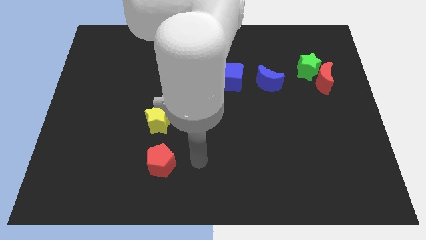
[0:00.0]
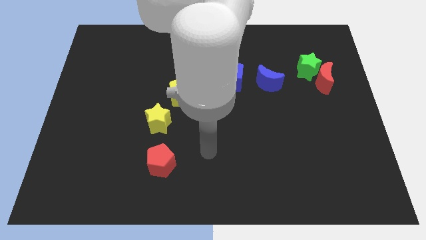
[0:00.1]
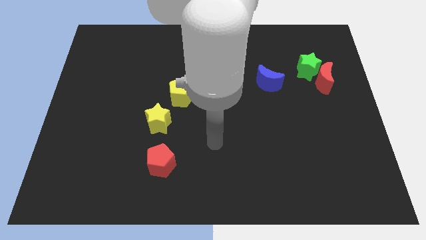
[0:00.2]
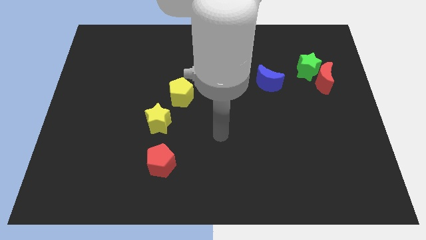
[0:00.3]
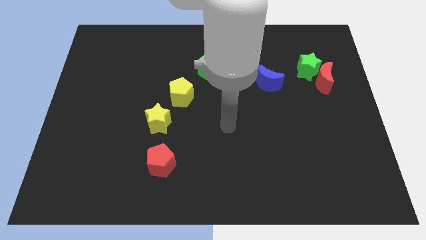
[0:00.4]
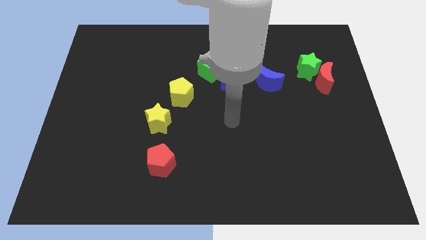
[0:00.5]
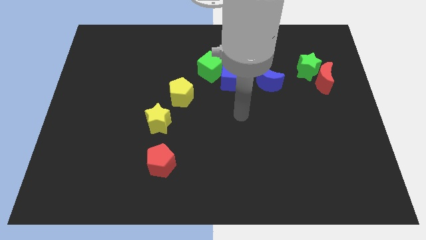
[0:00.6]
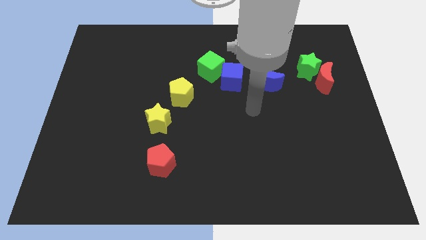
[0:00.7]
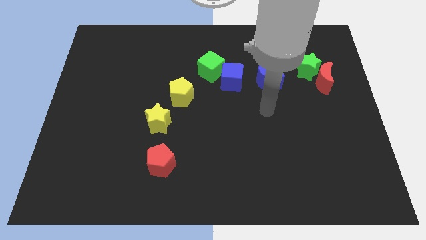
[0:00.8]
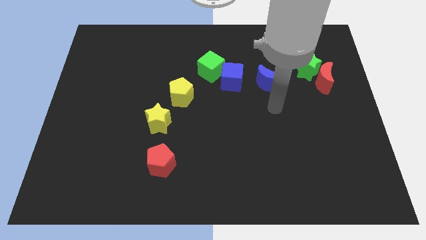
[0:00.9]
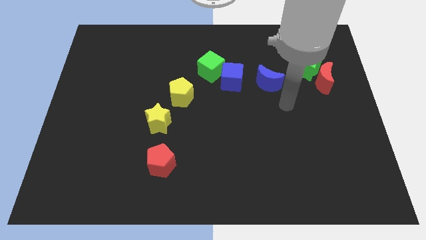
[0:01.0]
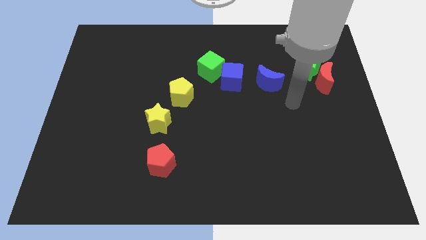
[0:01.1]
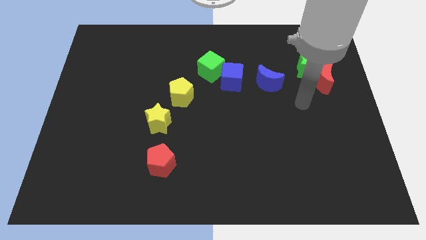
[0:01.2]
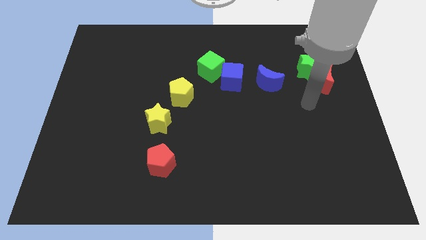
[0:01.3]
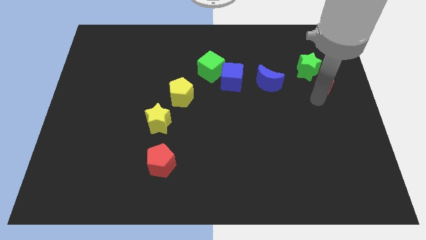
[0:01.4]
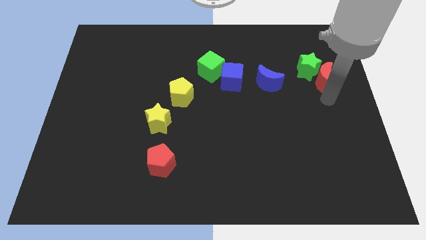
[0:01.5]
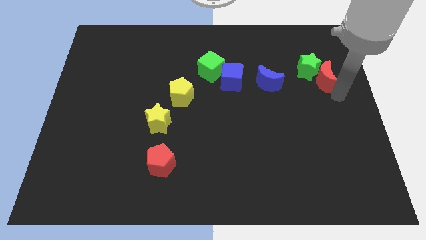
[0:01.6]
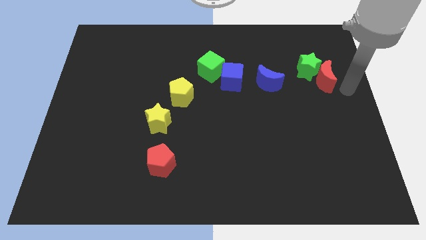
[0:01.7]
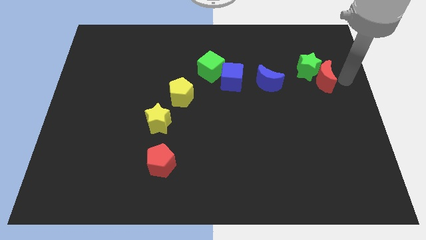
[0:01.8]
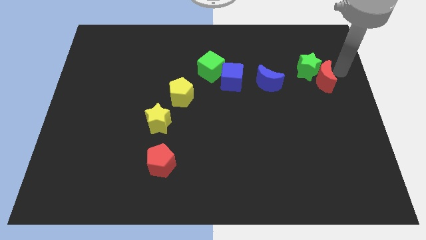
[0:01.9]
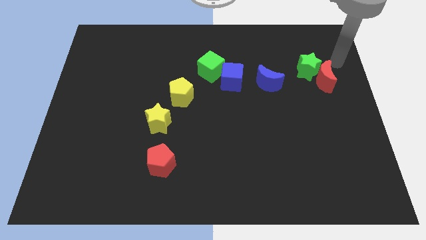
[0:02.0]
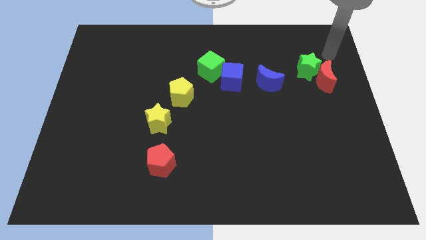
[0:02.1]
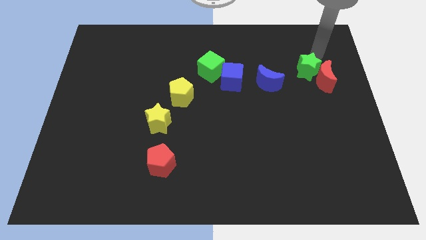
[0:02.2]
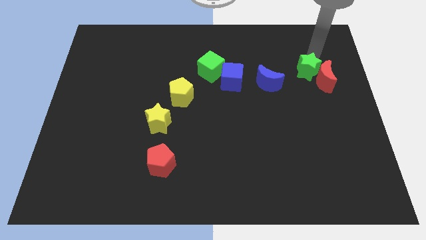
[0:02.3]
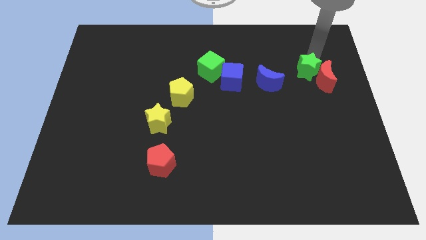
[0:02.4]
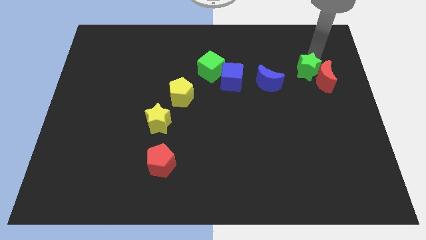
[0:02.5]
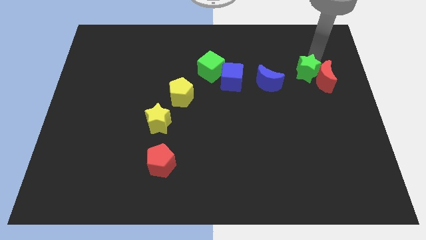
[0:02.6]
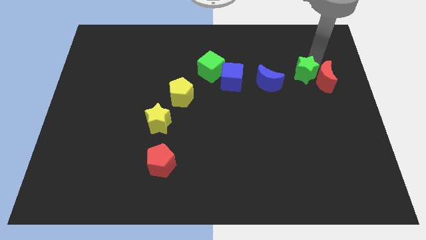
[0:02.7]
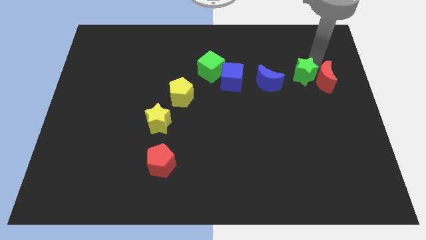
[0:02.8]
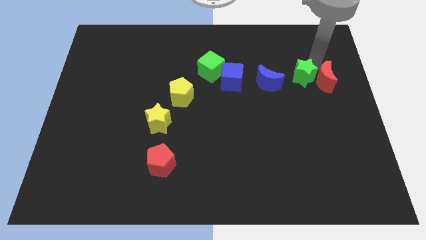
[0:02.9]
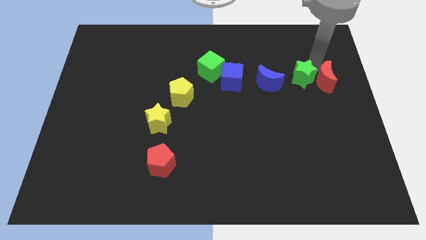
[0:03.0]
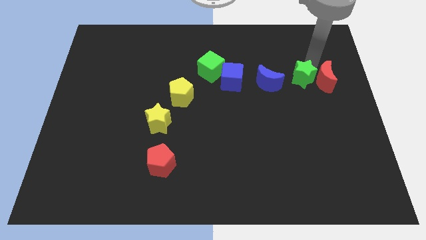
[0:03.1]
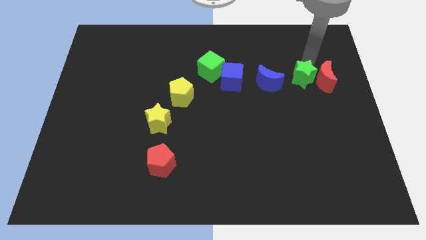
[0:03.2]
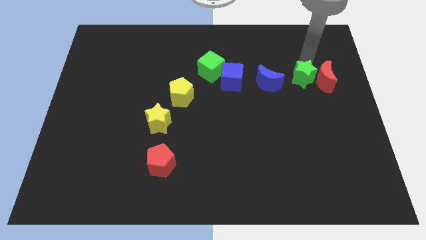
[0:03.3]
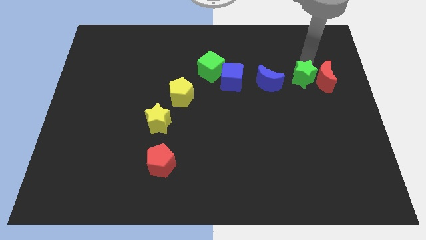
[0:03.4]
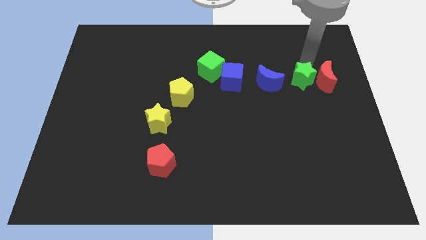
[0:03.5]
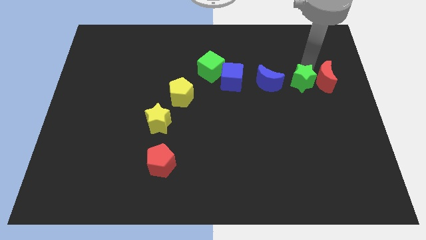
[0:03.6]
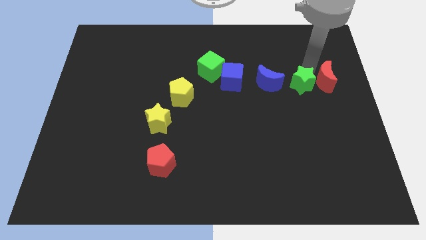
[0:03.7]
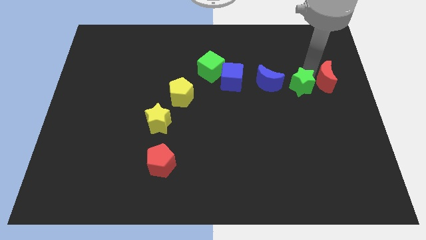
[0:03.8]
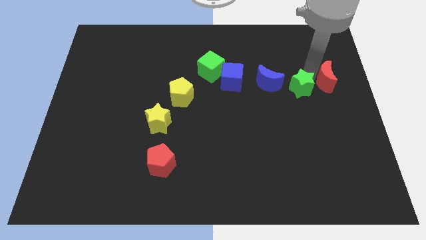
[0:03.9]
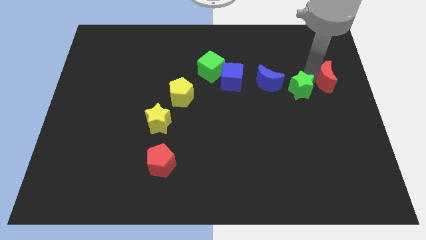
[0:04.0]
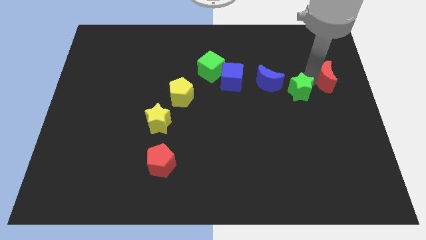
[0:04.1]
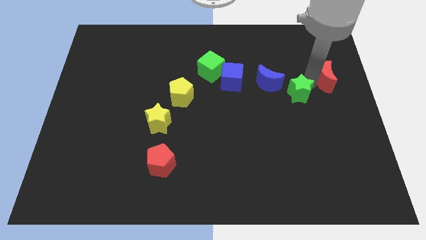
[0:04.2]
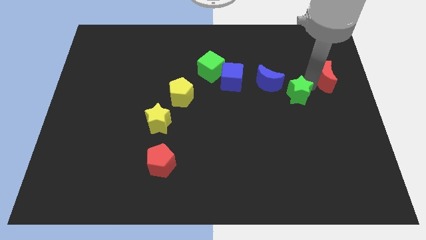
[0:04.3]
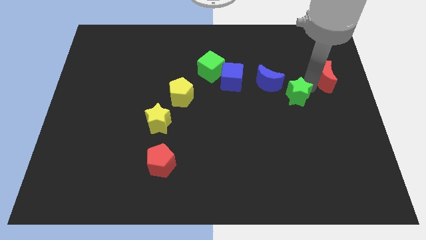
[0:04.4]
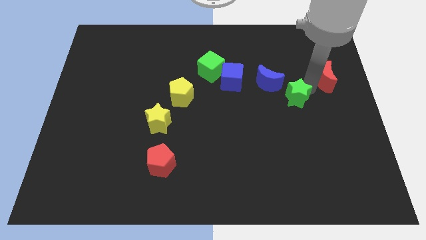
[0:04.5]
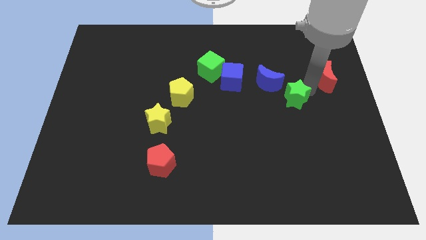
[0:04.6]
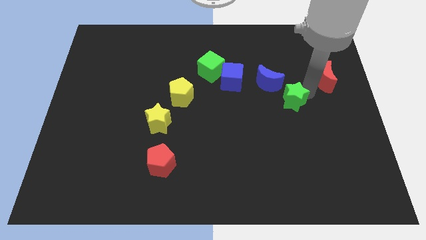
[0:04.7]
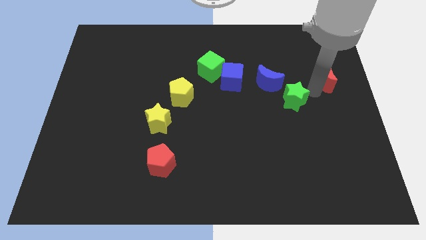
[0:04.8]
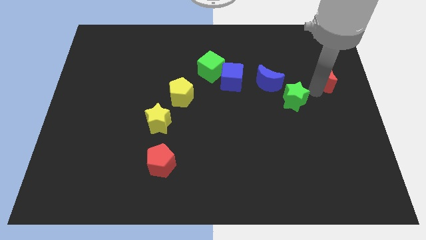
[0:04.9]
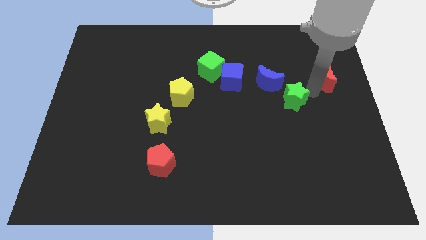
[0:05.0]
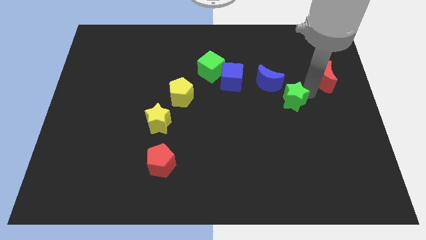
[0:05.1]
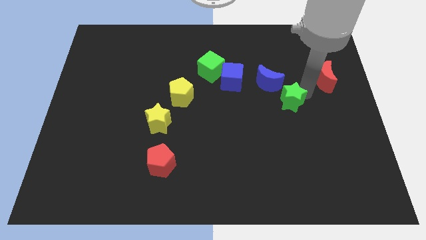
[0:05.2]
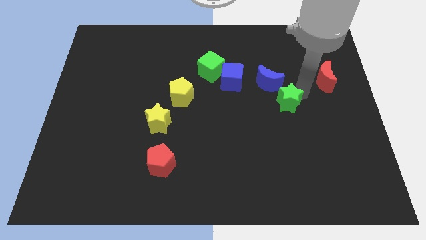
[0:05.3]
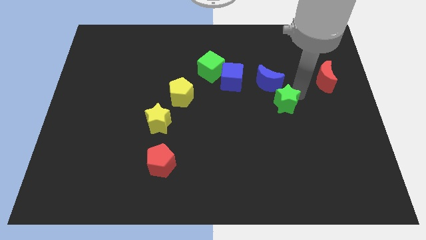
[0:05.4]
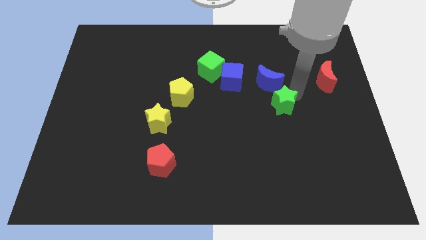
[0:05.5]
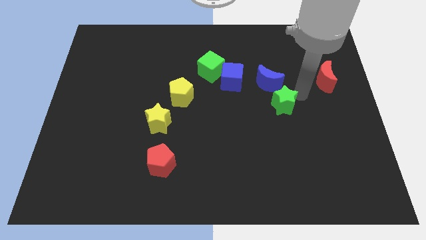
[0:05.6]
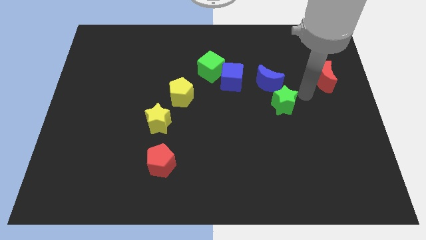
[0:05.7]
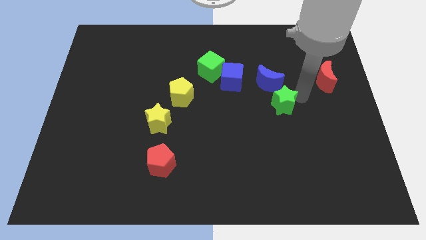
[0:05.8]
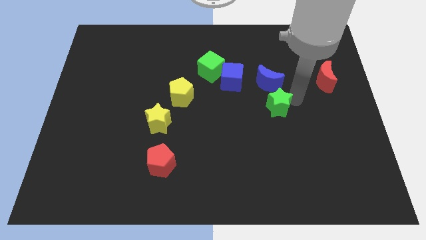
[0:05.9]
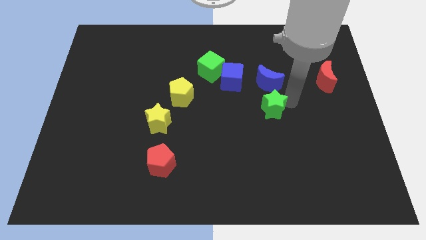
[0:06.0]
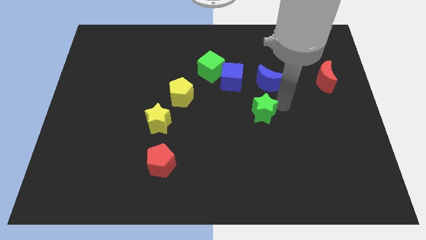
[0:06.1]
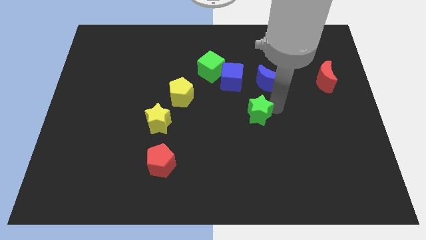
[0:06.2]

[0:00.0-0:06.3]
move the green star diagonally down and to the left

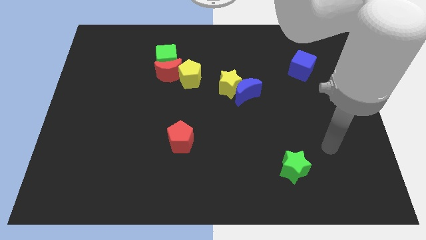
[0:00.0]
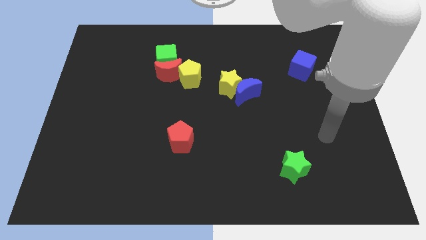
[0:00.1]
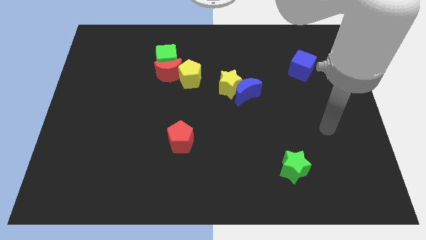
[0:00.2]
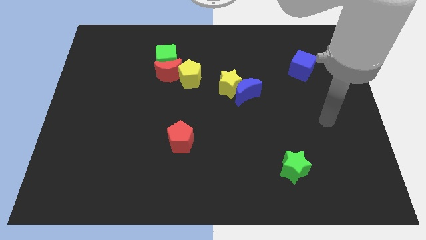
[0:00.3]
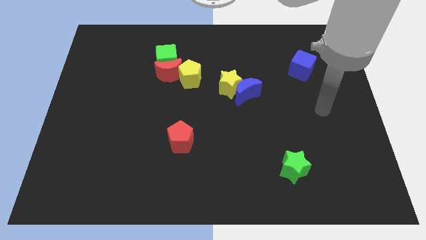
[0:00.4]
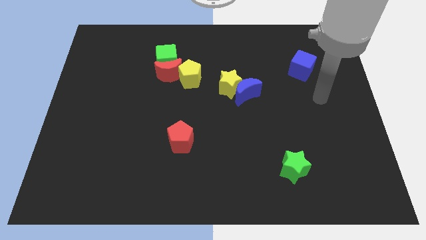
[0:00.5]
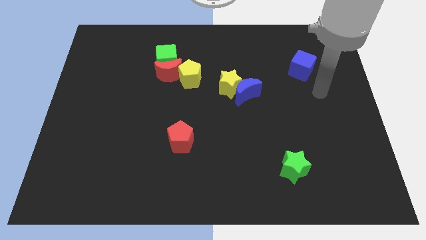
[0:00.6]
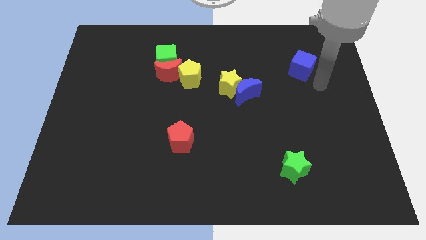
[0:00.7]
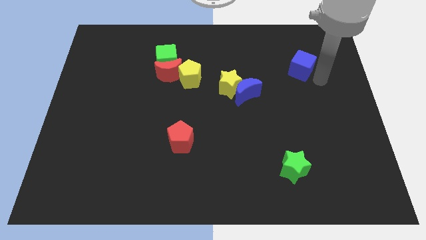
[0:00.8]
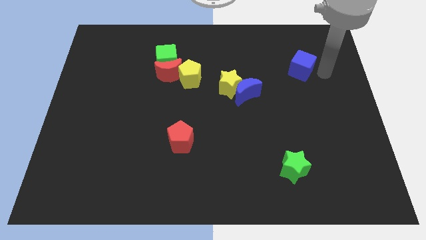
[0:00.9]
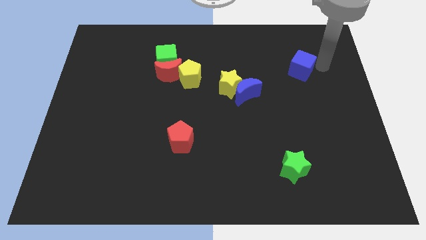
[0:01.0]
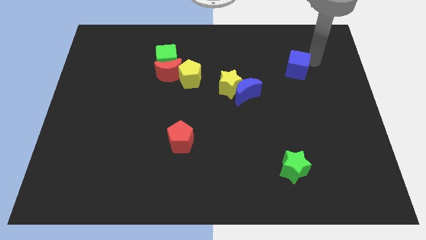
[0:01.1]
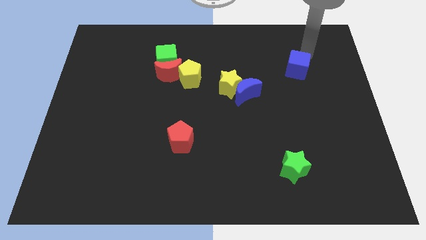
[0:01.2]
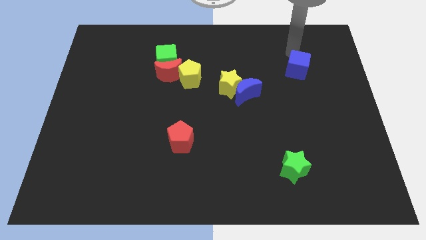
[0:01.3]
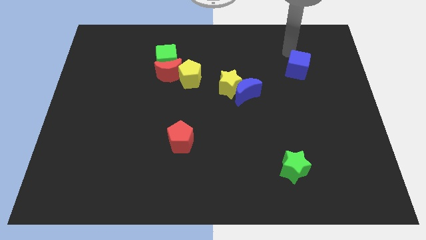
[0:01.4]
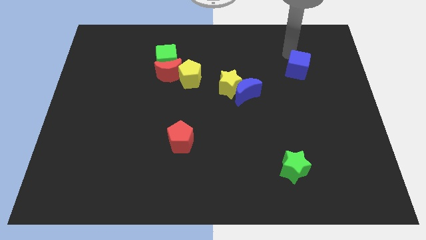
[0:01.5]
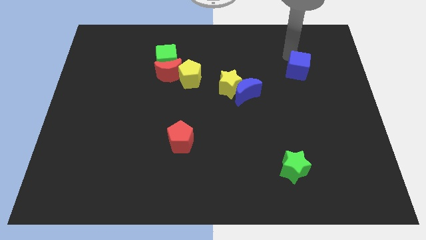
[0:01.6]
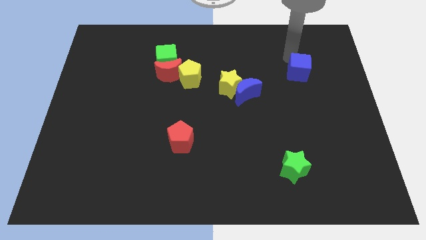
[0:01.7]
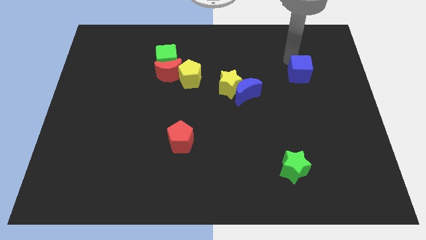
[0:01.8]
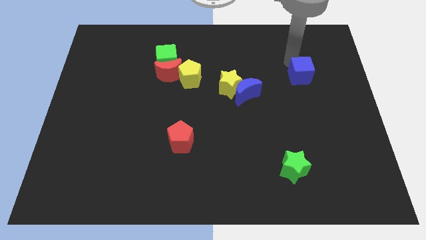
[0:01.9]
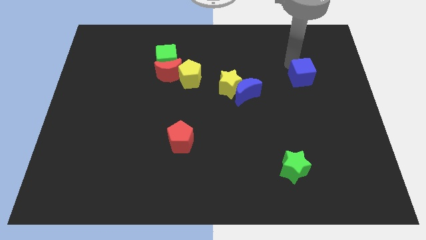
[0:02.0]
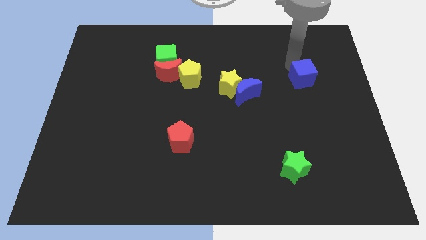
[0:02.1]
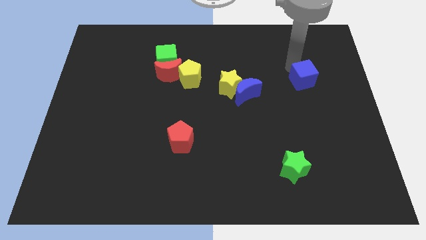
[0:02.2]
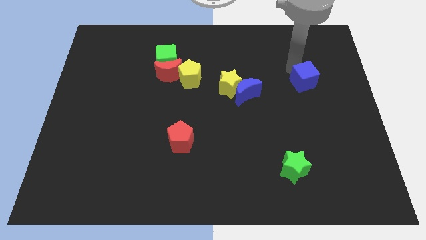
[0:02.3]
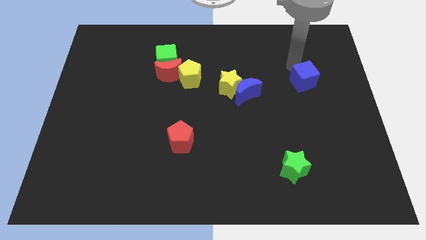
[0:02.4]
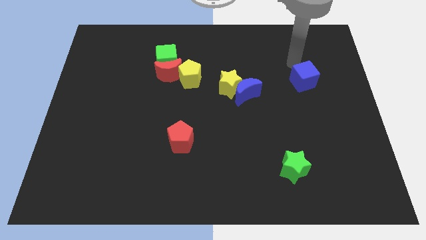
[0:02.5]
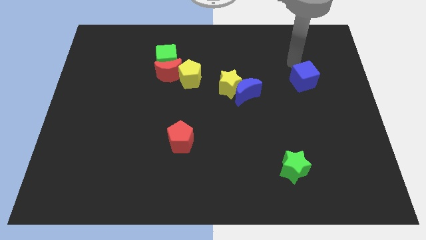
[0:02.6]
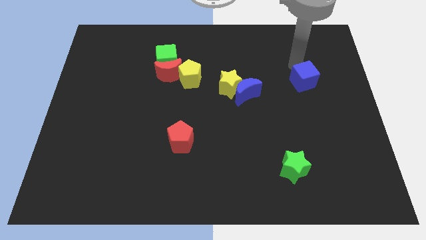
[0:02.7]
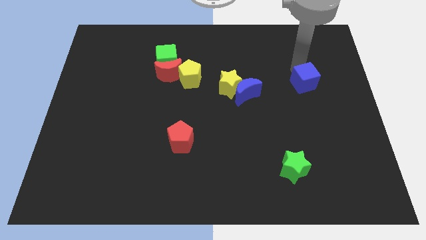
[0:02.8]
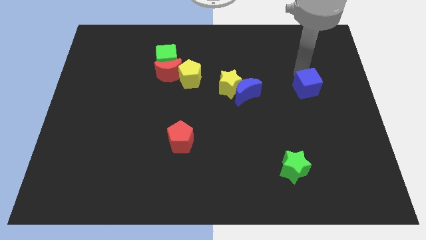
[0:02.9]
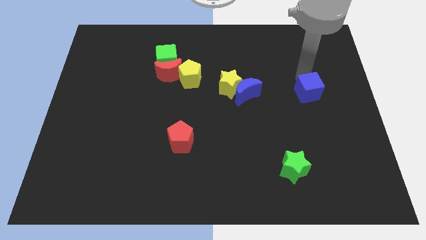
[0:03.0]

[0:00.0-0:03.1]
push the blue cube a bit down
